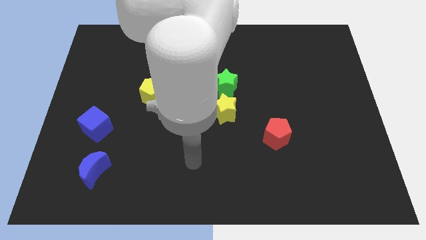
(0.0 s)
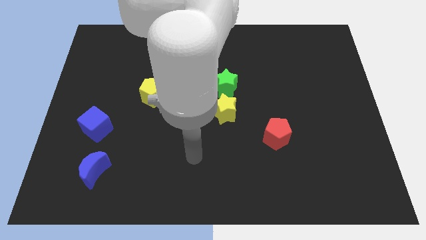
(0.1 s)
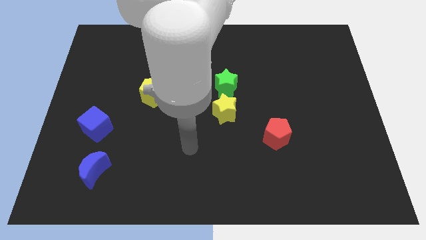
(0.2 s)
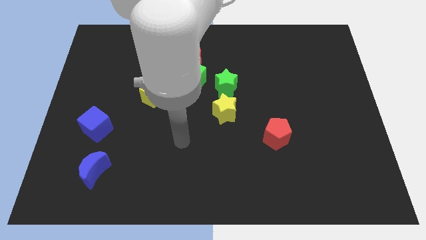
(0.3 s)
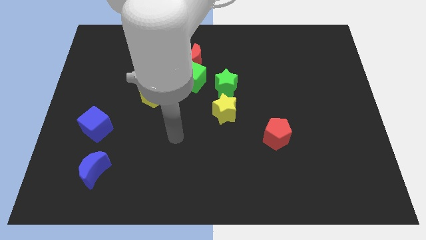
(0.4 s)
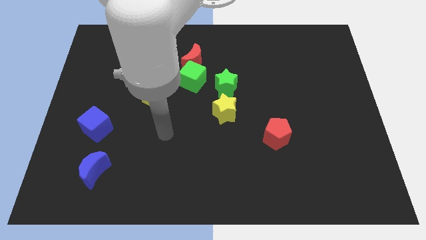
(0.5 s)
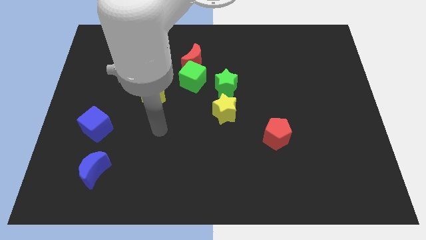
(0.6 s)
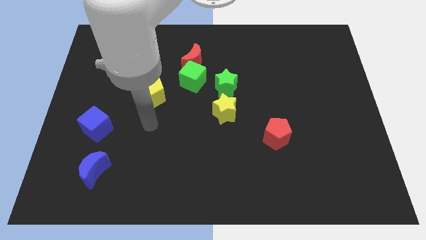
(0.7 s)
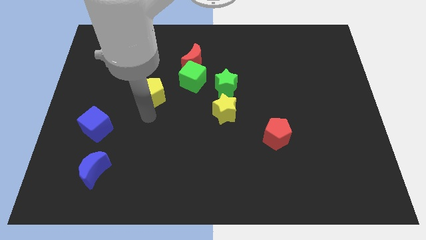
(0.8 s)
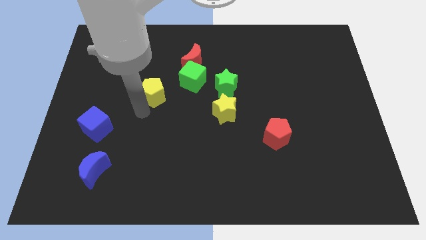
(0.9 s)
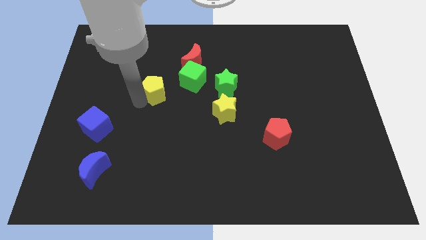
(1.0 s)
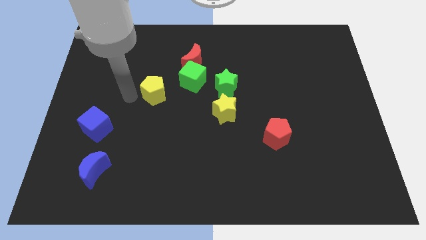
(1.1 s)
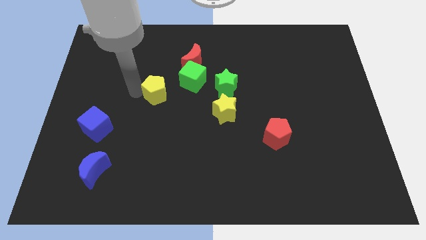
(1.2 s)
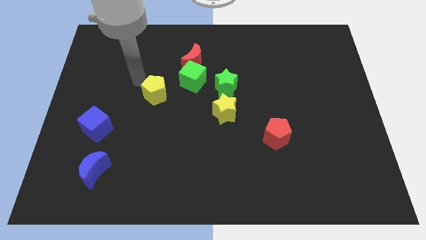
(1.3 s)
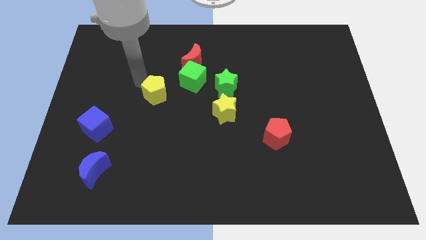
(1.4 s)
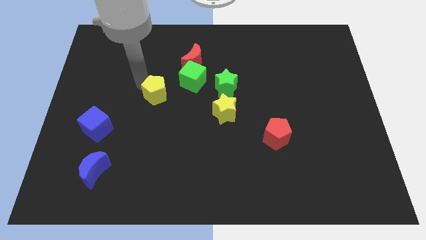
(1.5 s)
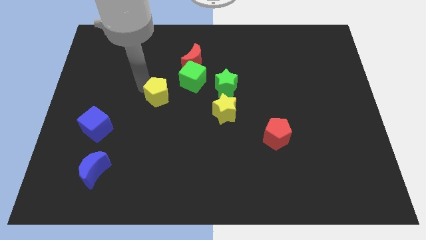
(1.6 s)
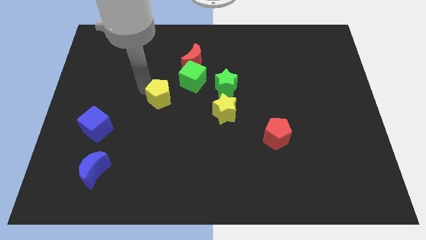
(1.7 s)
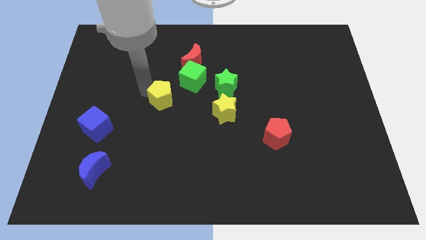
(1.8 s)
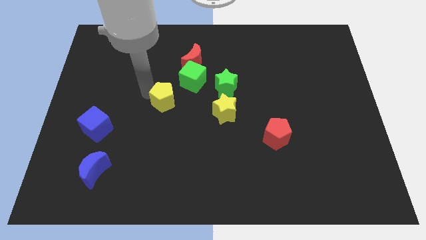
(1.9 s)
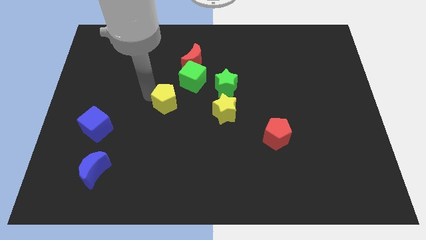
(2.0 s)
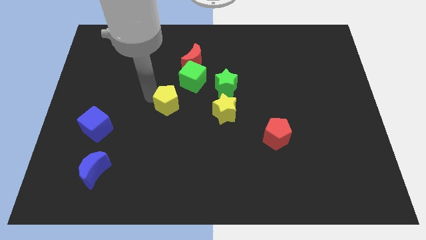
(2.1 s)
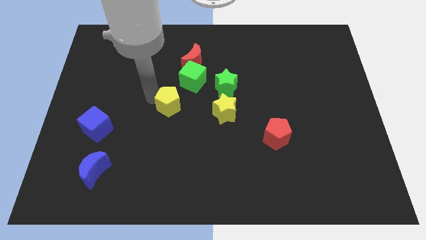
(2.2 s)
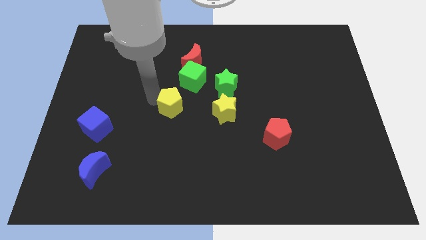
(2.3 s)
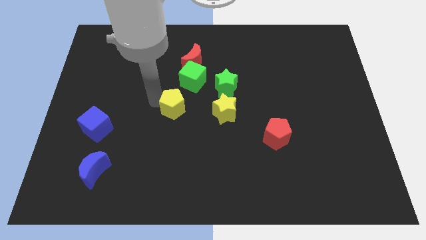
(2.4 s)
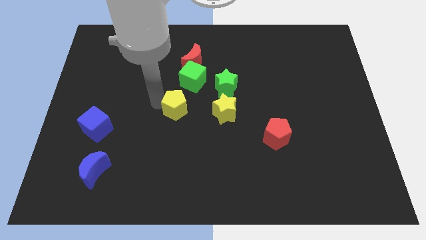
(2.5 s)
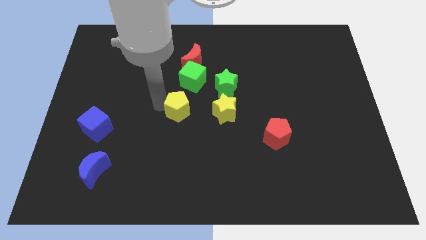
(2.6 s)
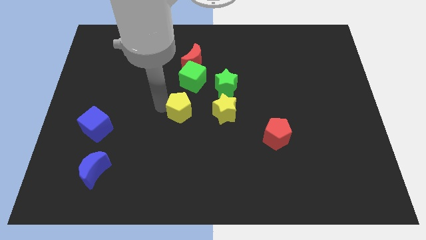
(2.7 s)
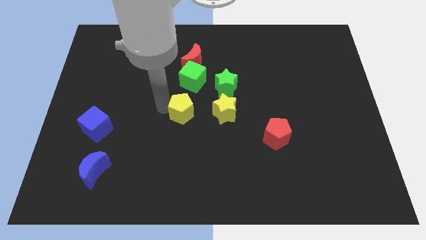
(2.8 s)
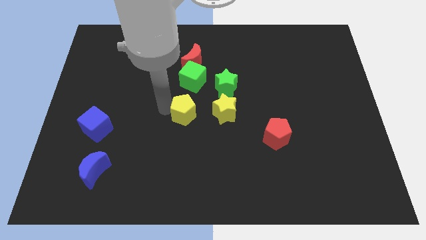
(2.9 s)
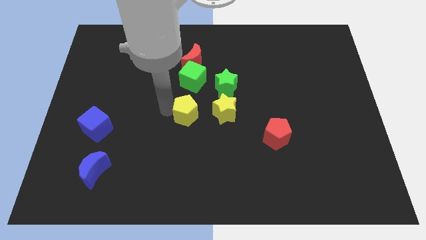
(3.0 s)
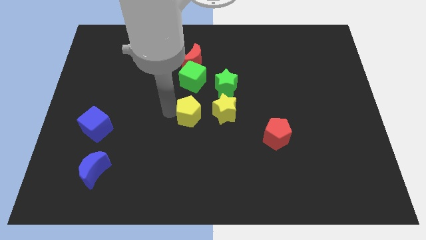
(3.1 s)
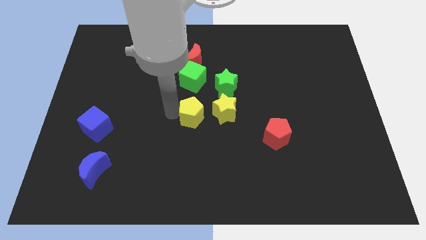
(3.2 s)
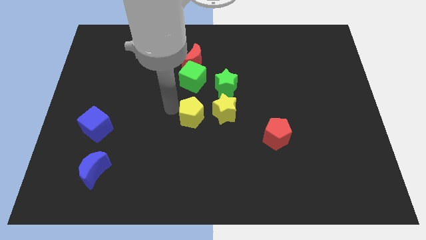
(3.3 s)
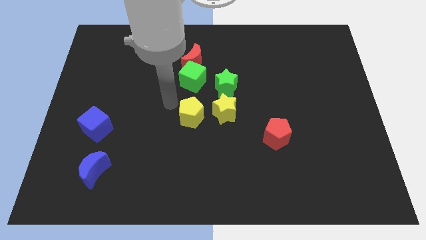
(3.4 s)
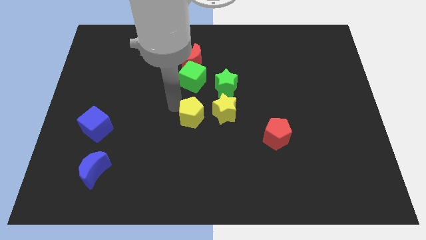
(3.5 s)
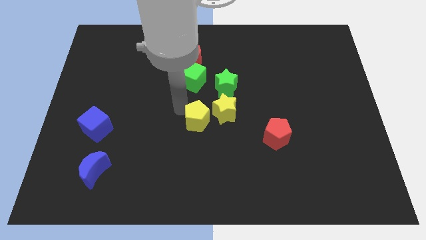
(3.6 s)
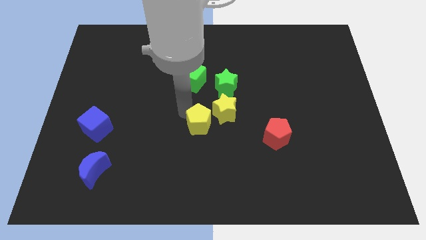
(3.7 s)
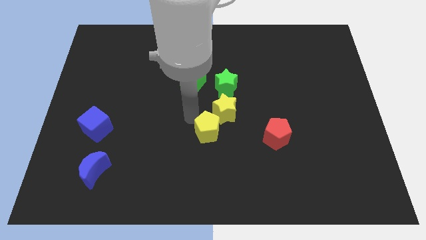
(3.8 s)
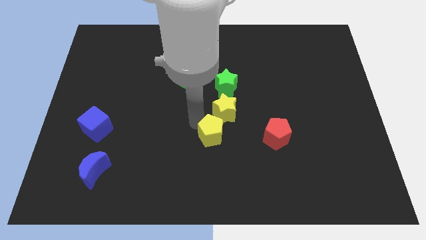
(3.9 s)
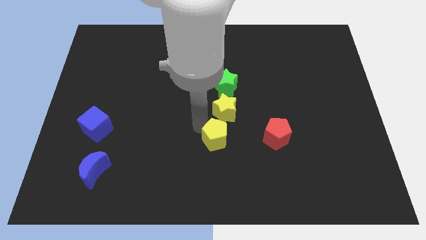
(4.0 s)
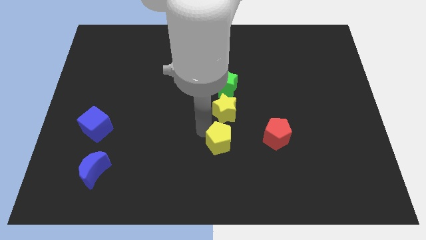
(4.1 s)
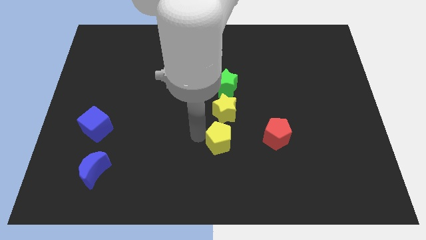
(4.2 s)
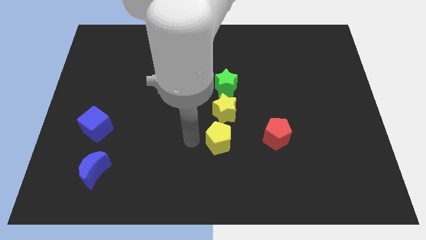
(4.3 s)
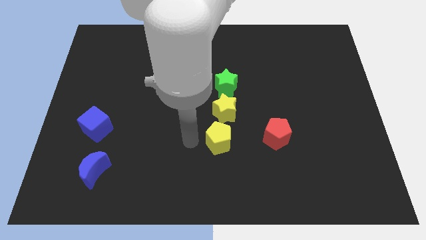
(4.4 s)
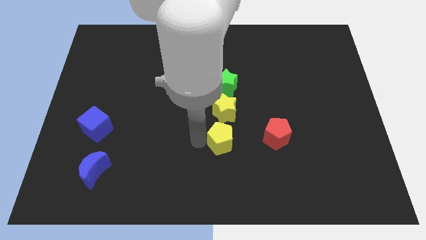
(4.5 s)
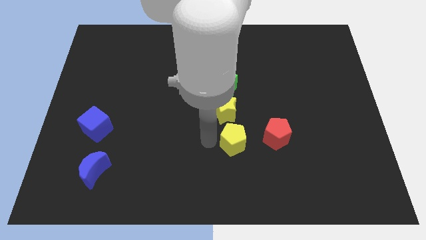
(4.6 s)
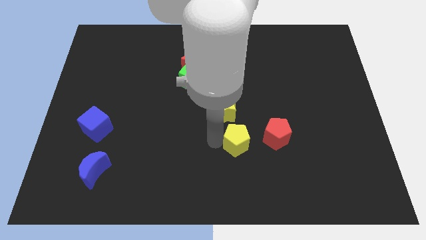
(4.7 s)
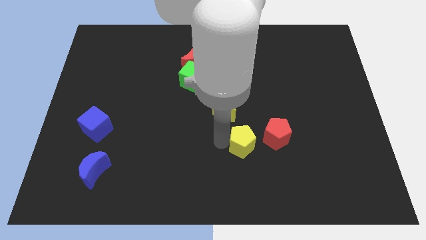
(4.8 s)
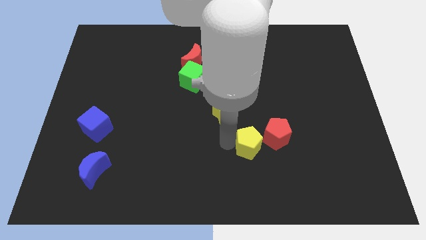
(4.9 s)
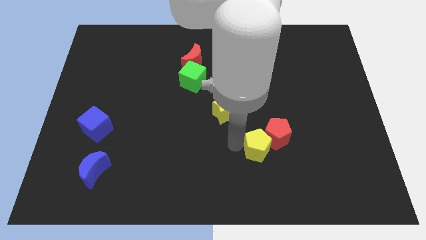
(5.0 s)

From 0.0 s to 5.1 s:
push the yellow pentagon next to the red pentagon

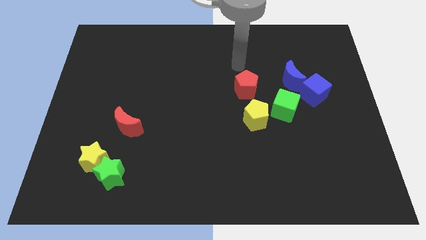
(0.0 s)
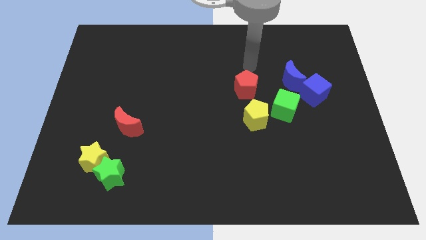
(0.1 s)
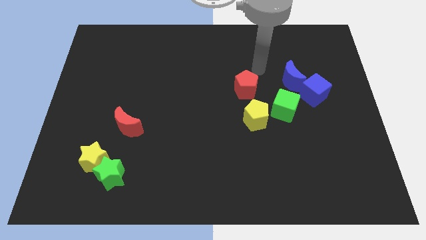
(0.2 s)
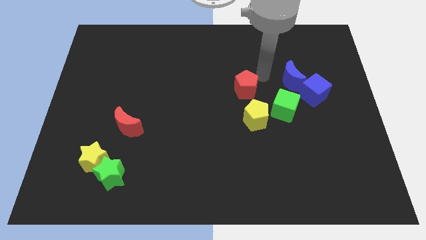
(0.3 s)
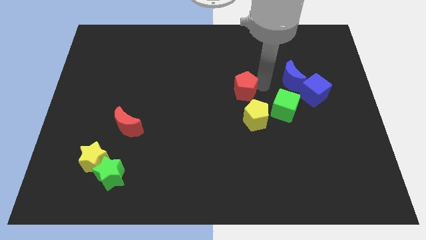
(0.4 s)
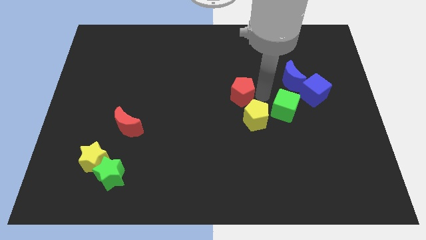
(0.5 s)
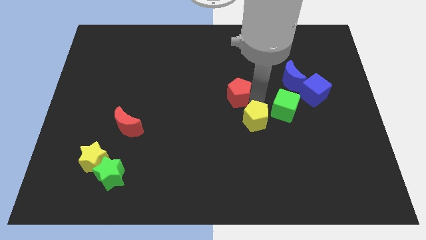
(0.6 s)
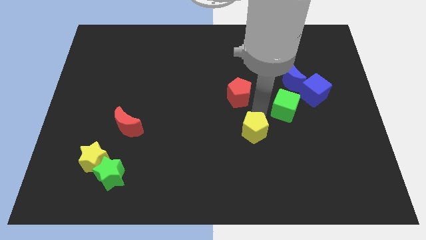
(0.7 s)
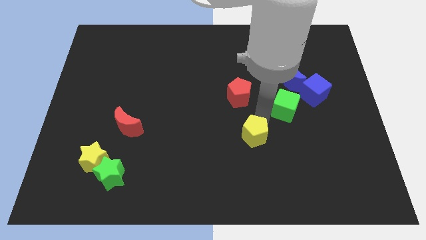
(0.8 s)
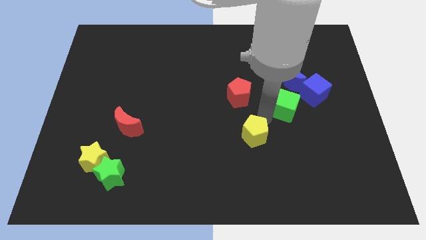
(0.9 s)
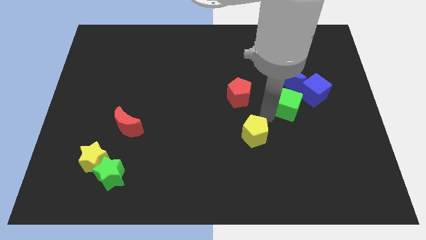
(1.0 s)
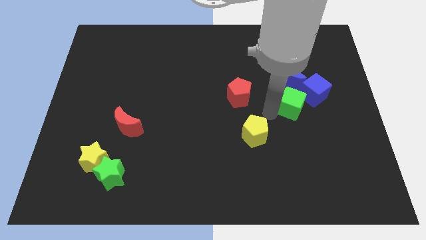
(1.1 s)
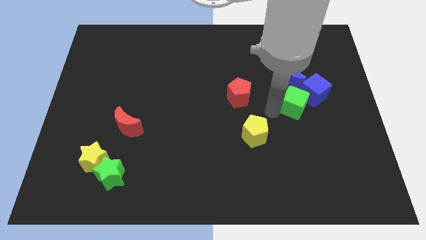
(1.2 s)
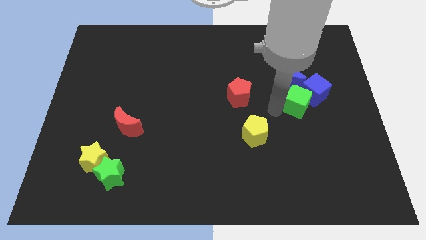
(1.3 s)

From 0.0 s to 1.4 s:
slide the green cube to the blue cube

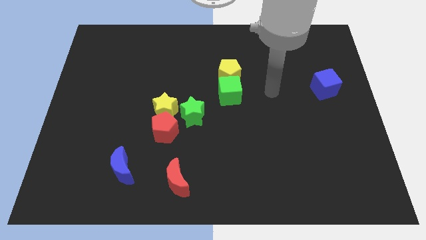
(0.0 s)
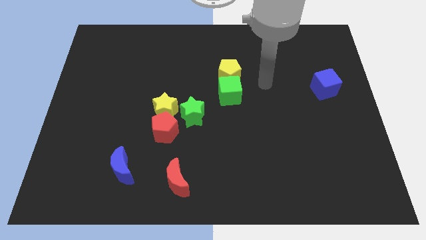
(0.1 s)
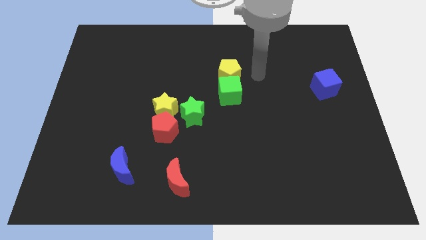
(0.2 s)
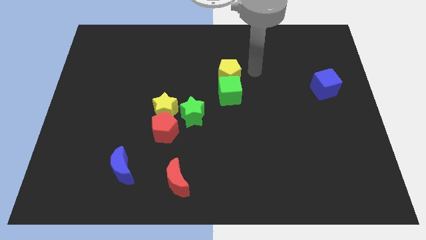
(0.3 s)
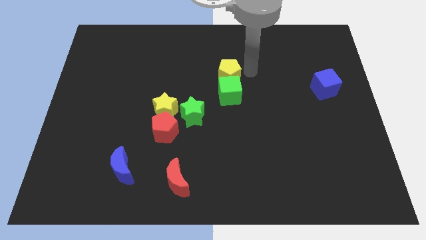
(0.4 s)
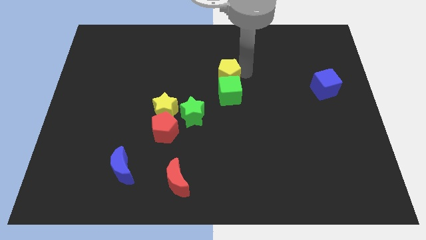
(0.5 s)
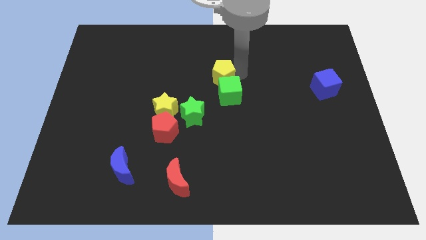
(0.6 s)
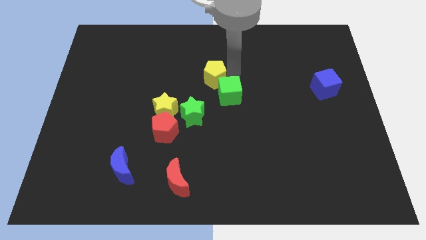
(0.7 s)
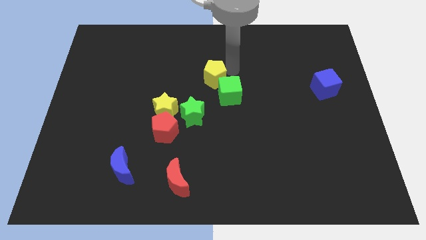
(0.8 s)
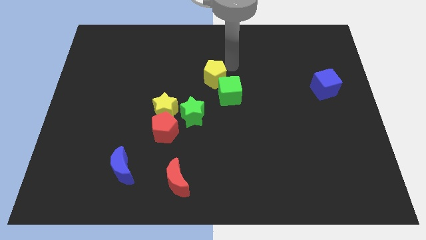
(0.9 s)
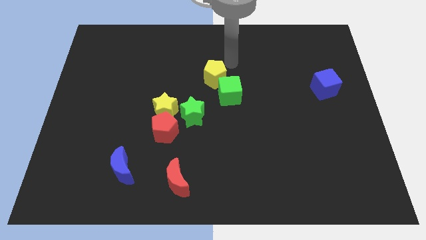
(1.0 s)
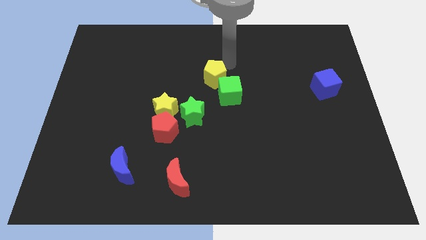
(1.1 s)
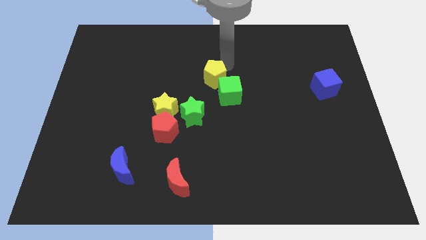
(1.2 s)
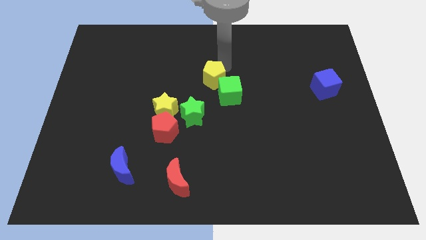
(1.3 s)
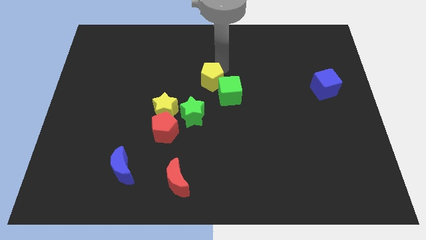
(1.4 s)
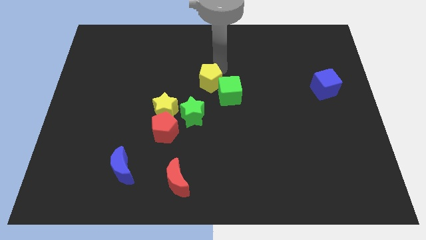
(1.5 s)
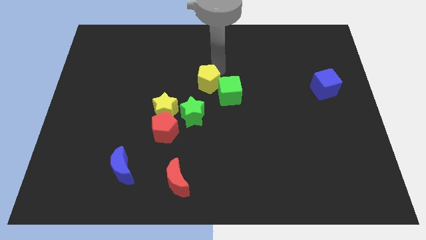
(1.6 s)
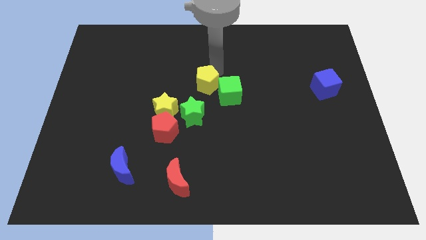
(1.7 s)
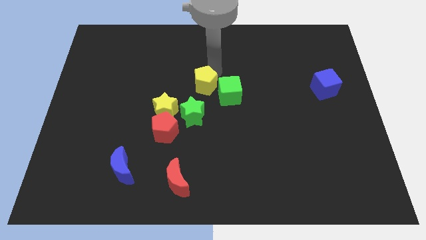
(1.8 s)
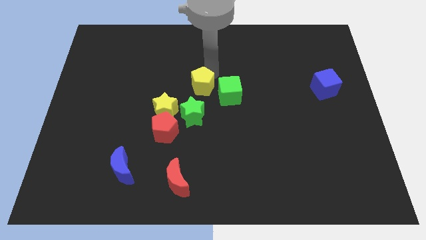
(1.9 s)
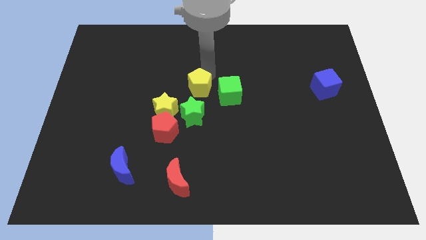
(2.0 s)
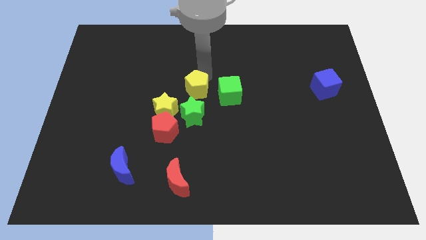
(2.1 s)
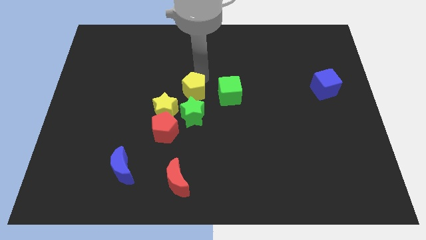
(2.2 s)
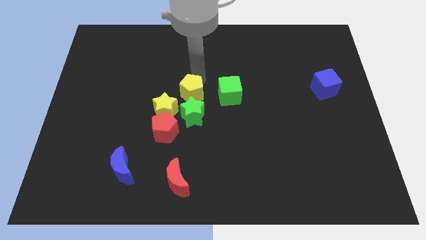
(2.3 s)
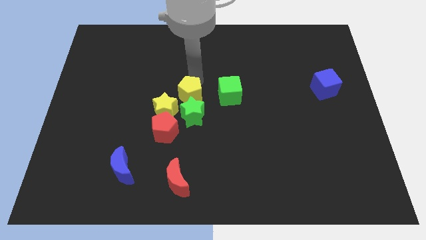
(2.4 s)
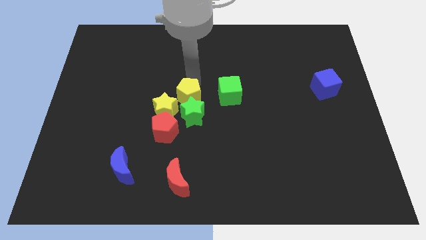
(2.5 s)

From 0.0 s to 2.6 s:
put the yellow pentagon towards the green star
